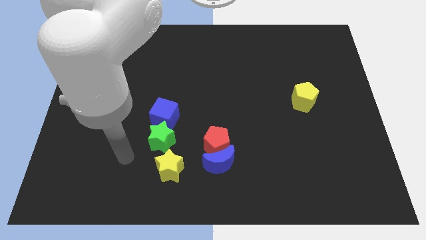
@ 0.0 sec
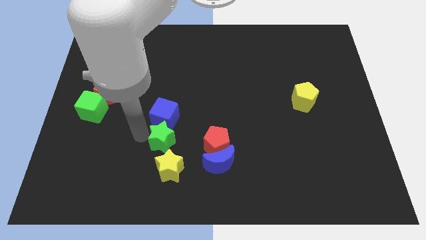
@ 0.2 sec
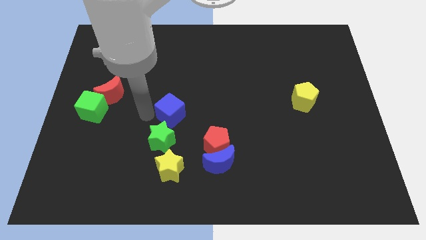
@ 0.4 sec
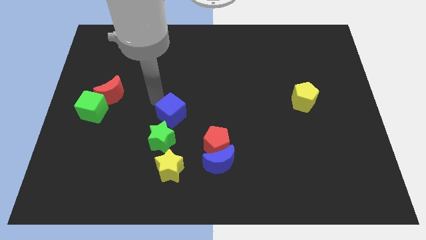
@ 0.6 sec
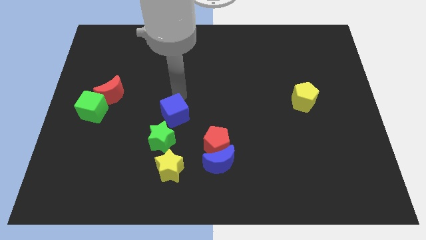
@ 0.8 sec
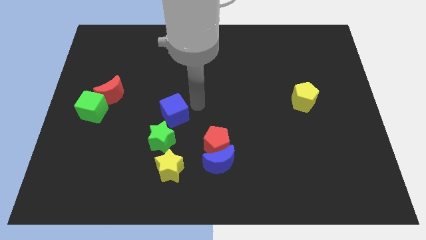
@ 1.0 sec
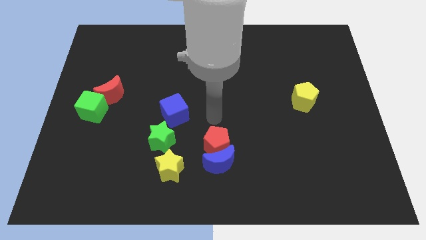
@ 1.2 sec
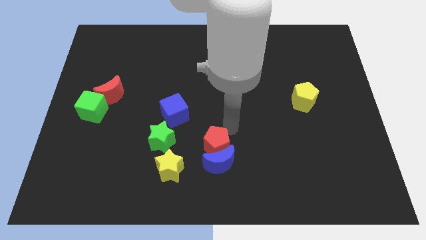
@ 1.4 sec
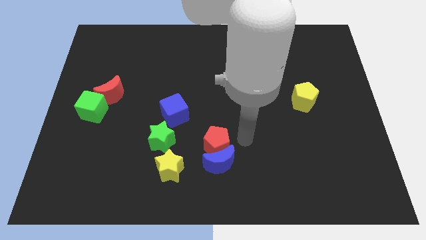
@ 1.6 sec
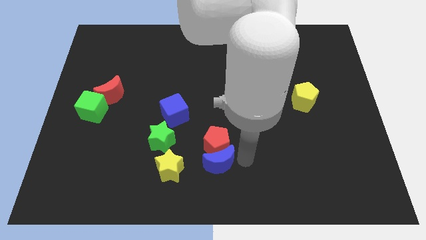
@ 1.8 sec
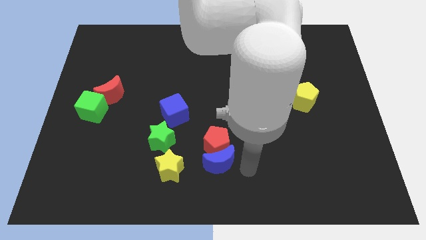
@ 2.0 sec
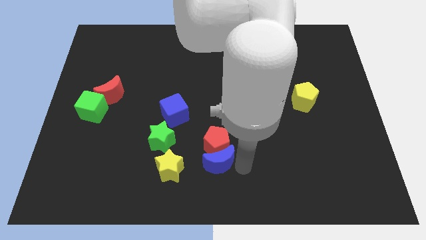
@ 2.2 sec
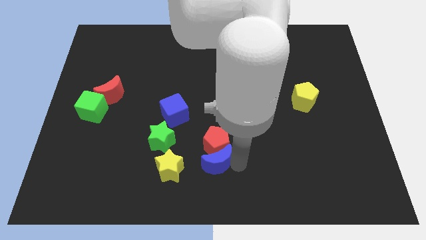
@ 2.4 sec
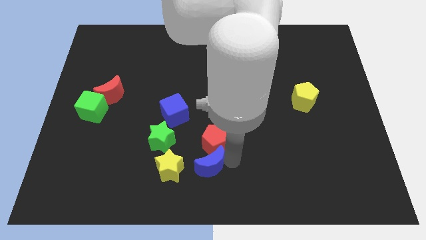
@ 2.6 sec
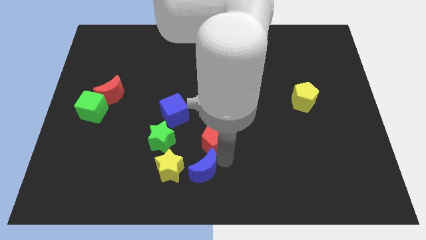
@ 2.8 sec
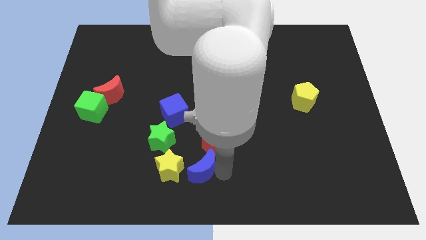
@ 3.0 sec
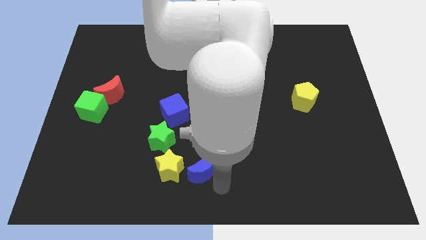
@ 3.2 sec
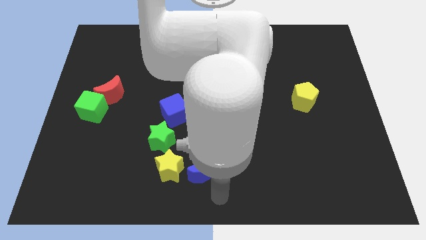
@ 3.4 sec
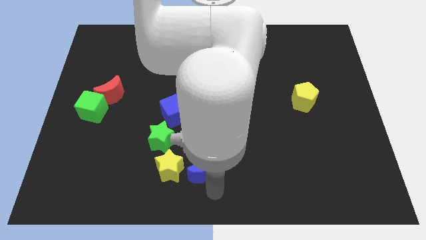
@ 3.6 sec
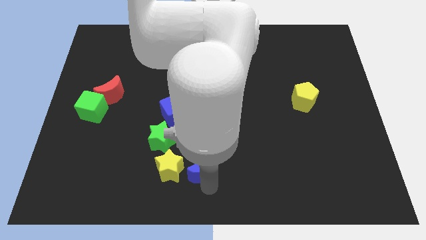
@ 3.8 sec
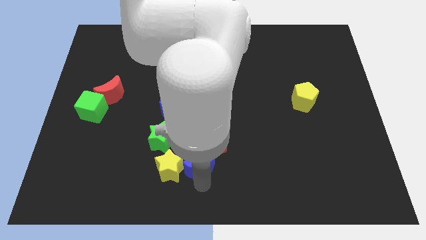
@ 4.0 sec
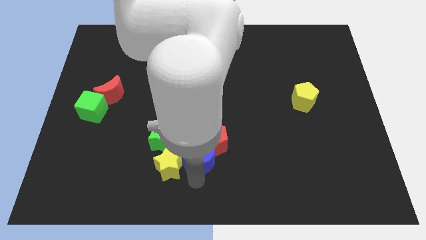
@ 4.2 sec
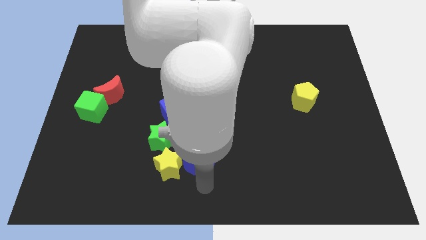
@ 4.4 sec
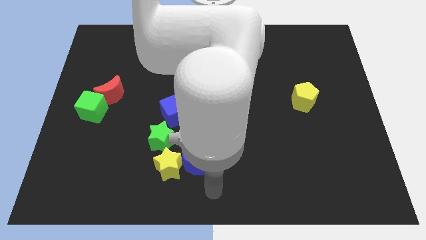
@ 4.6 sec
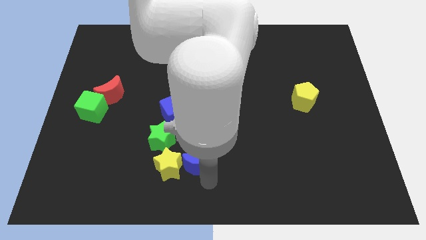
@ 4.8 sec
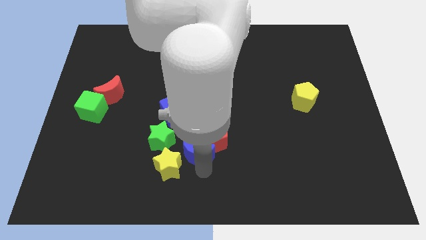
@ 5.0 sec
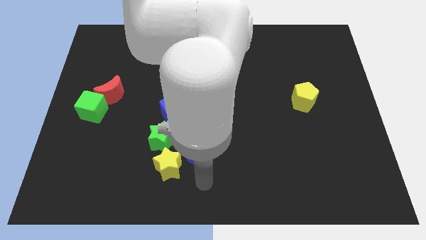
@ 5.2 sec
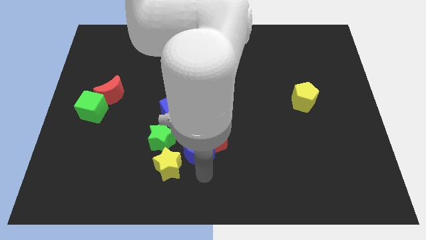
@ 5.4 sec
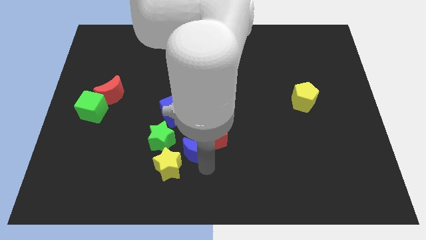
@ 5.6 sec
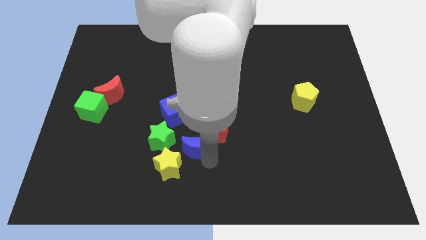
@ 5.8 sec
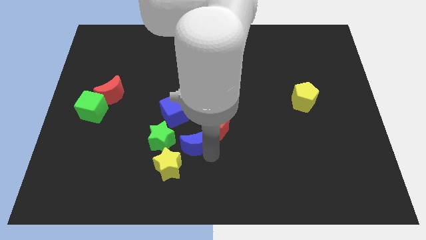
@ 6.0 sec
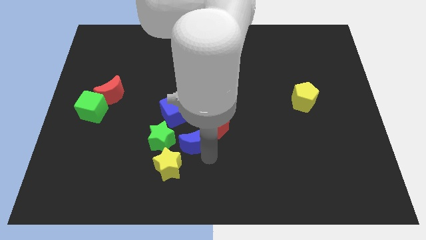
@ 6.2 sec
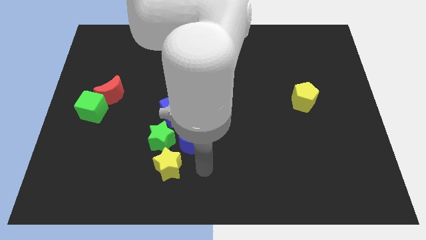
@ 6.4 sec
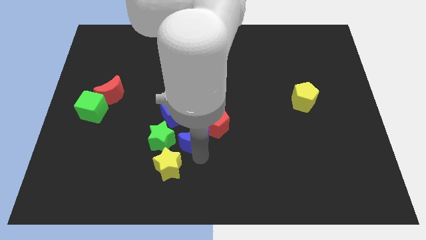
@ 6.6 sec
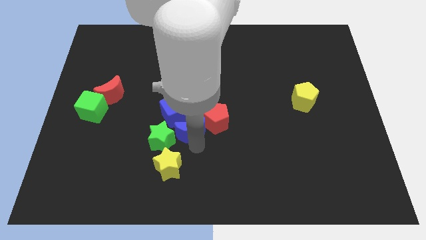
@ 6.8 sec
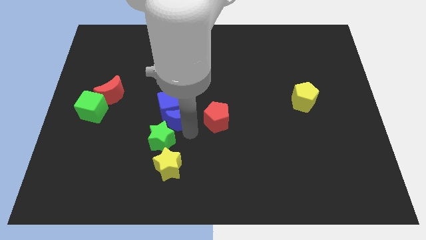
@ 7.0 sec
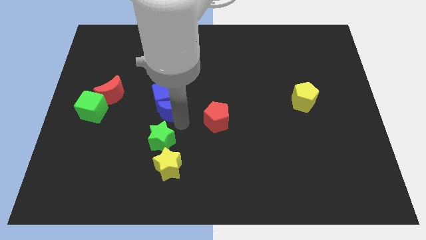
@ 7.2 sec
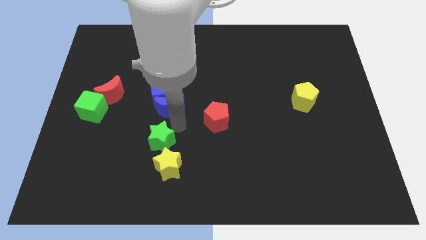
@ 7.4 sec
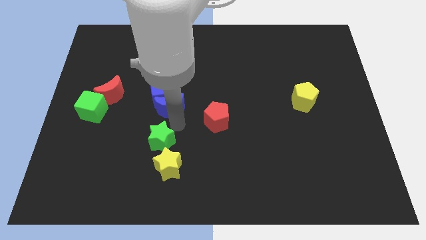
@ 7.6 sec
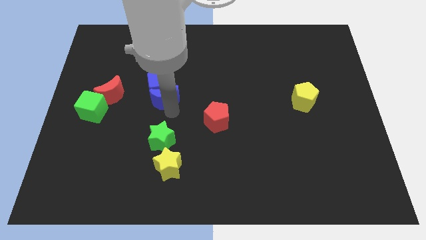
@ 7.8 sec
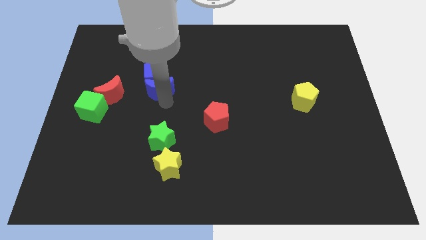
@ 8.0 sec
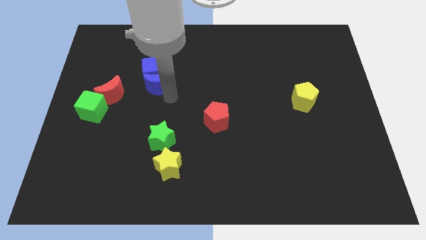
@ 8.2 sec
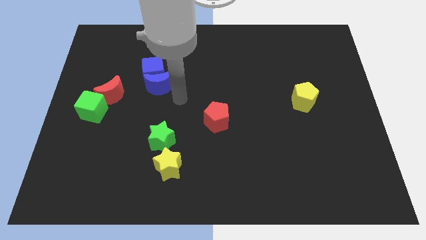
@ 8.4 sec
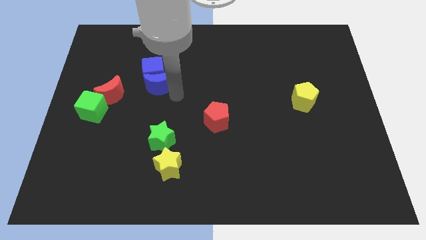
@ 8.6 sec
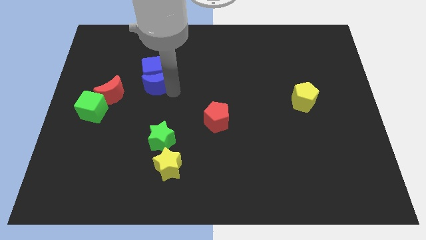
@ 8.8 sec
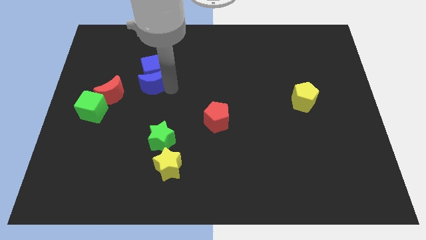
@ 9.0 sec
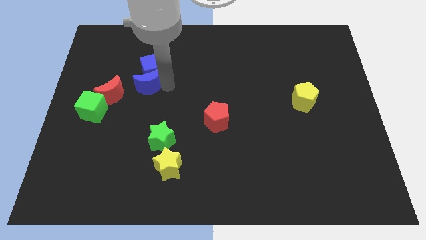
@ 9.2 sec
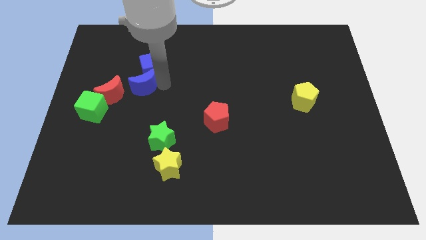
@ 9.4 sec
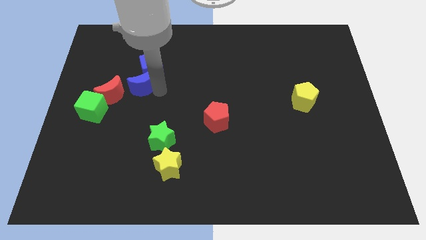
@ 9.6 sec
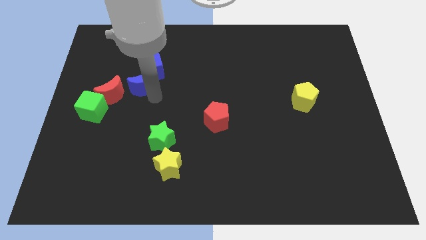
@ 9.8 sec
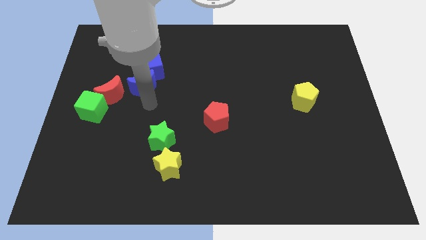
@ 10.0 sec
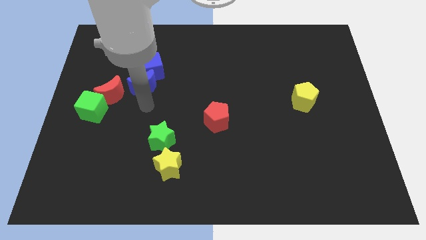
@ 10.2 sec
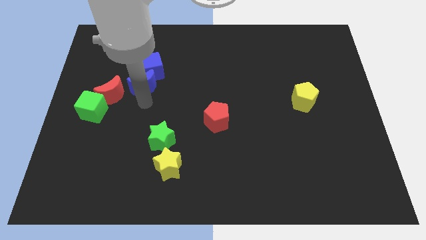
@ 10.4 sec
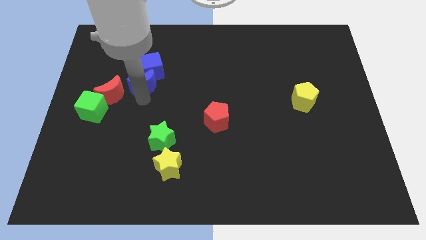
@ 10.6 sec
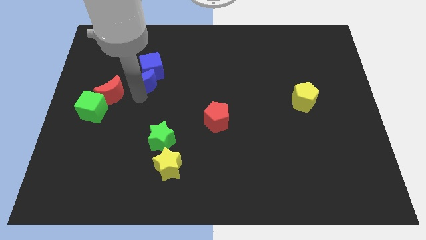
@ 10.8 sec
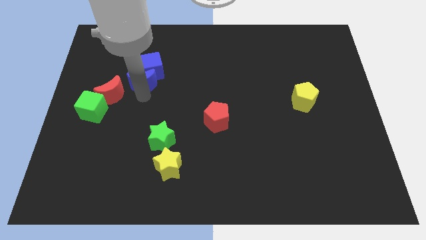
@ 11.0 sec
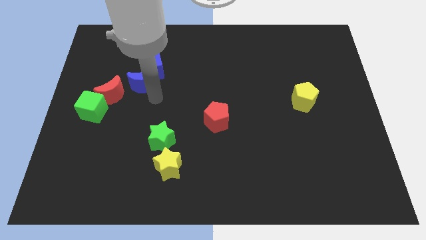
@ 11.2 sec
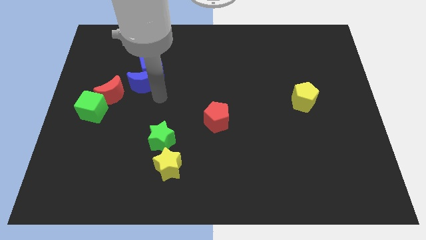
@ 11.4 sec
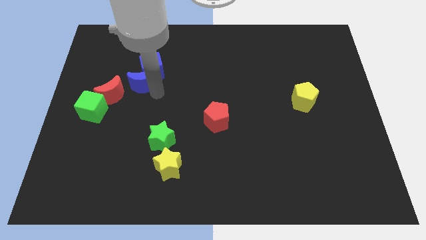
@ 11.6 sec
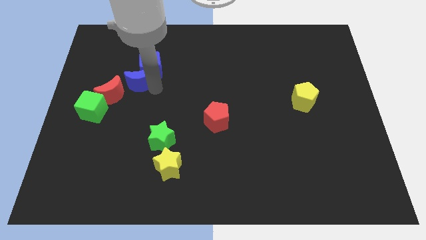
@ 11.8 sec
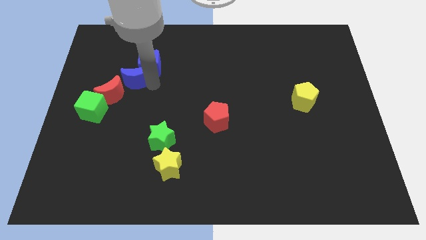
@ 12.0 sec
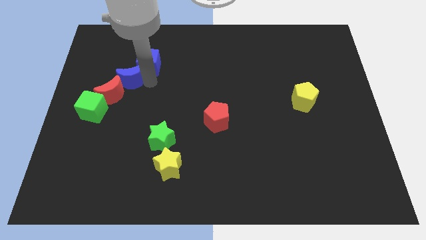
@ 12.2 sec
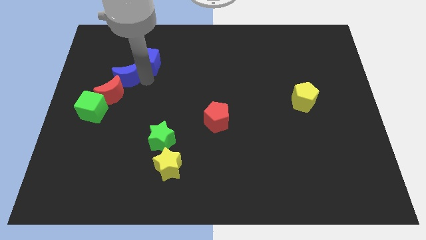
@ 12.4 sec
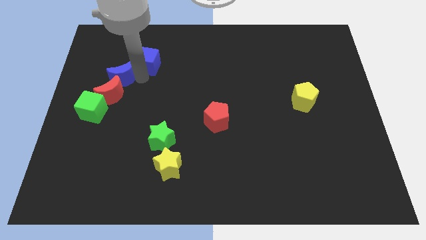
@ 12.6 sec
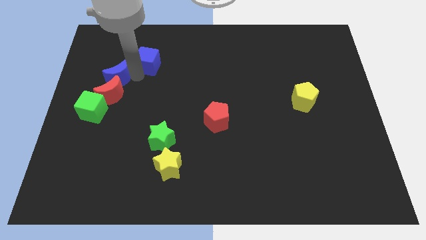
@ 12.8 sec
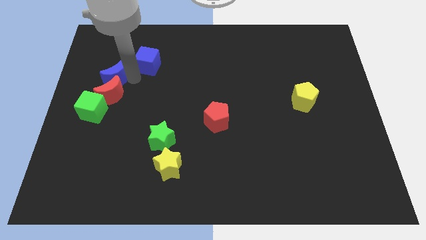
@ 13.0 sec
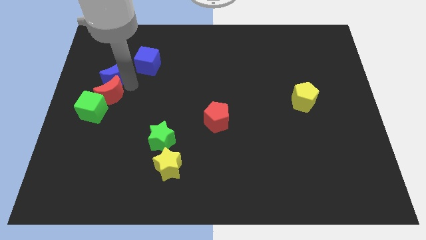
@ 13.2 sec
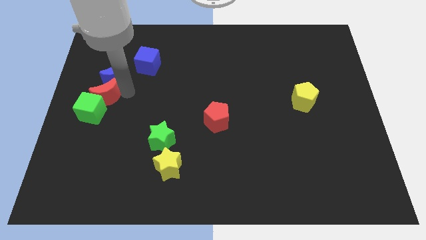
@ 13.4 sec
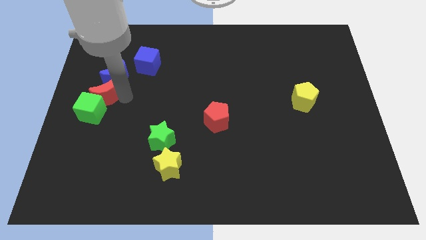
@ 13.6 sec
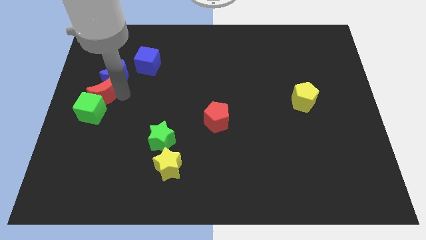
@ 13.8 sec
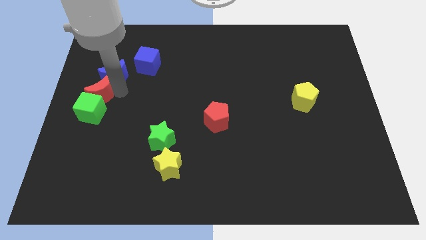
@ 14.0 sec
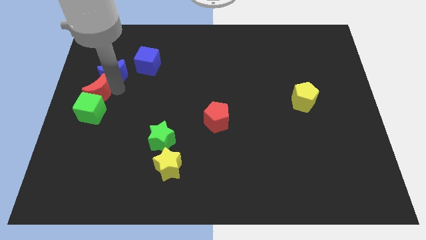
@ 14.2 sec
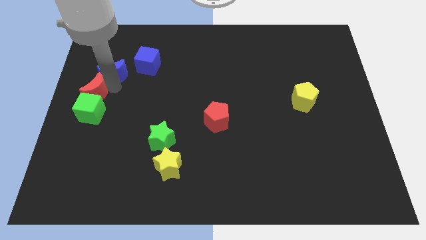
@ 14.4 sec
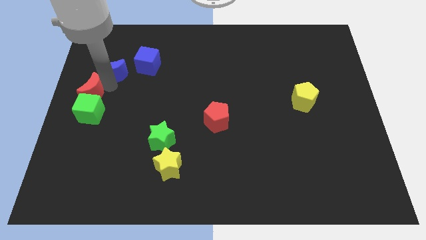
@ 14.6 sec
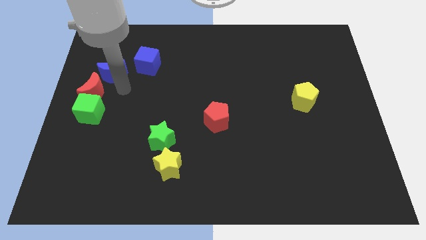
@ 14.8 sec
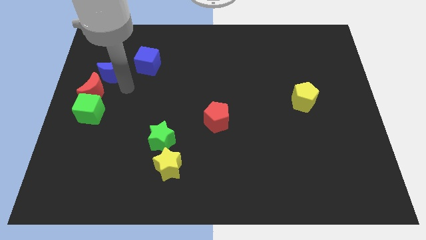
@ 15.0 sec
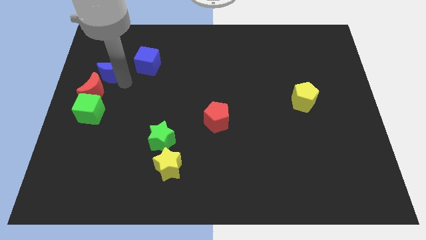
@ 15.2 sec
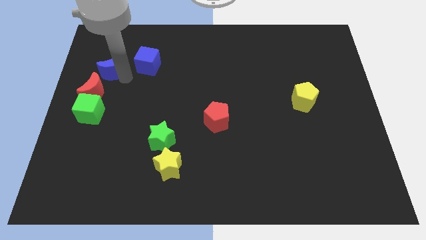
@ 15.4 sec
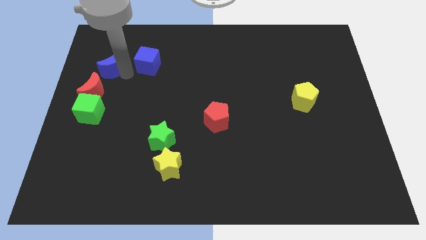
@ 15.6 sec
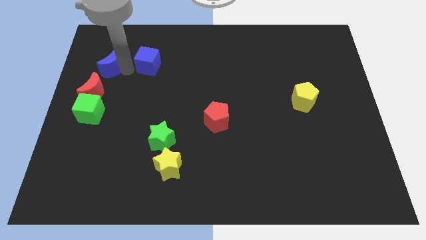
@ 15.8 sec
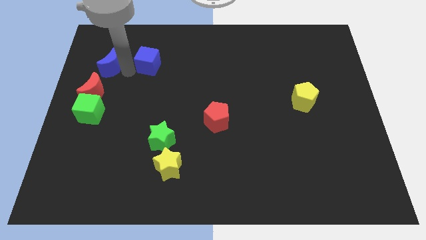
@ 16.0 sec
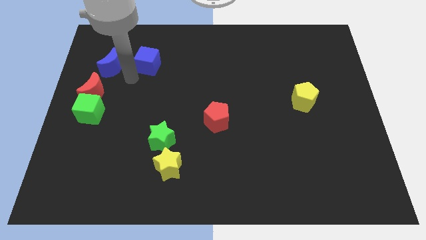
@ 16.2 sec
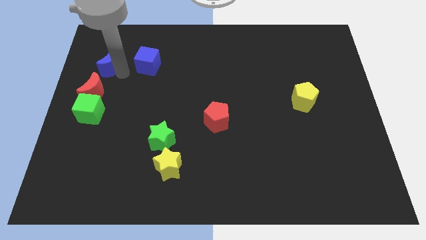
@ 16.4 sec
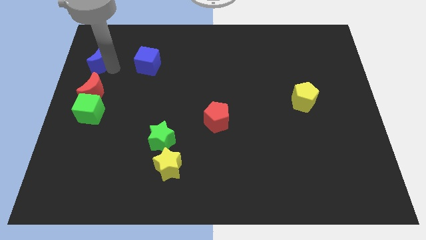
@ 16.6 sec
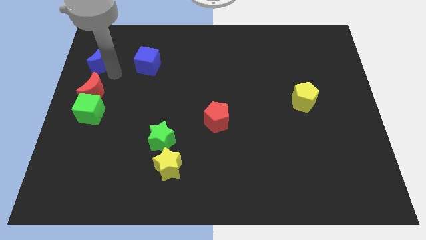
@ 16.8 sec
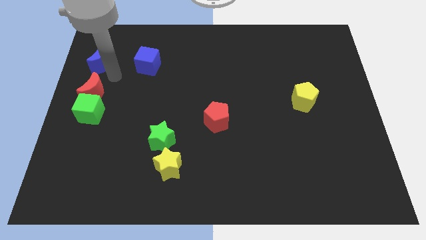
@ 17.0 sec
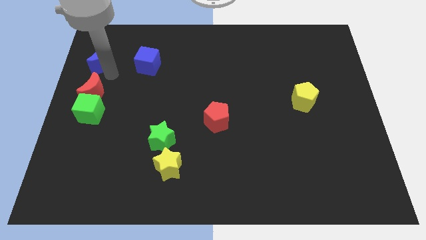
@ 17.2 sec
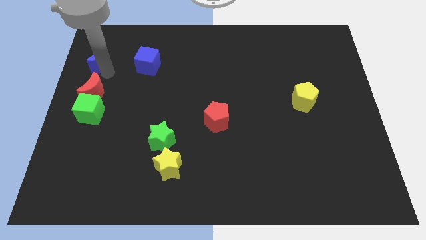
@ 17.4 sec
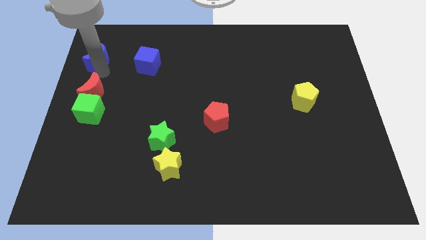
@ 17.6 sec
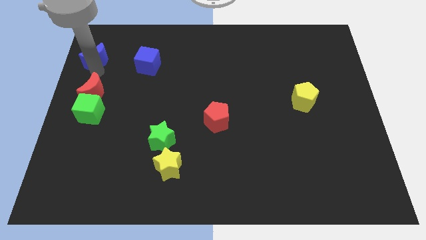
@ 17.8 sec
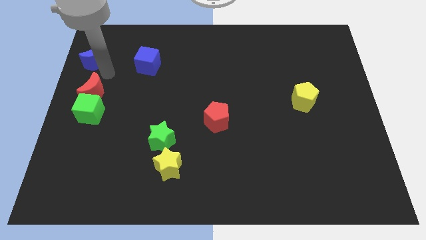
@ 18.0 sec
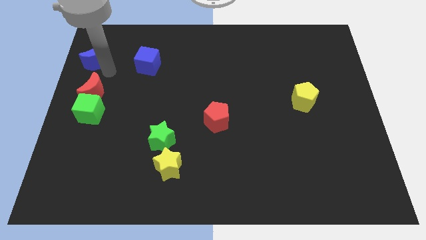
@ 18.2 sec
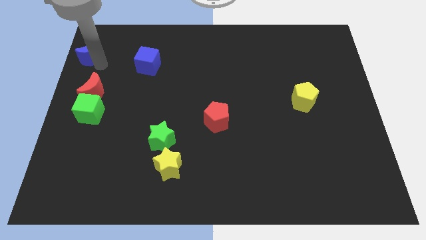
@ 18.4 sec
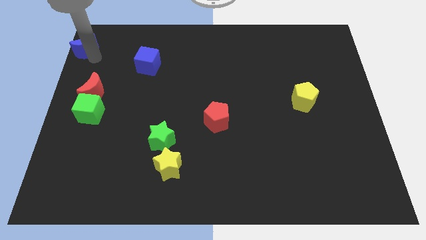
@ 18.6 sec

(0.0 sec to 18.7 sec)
push the blue moon to the top left of the board
